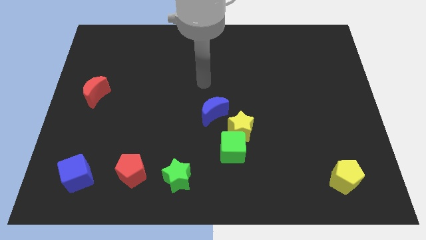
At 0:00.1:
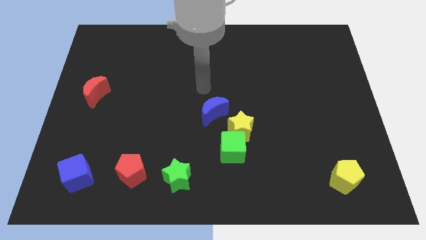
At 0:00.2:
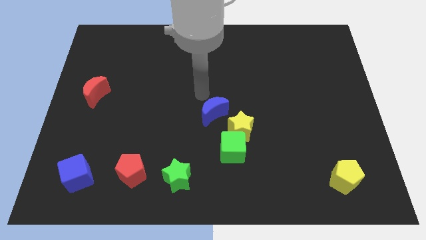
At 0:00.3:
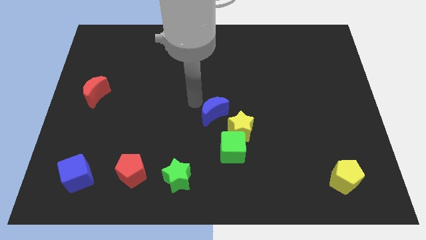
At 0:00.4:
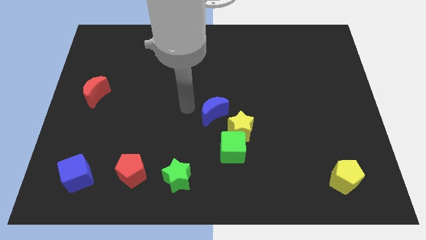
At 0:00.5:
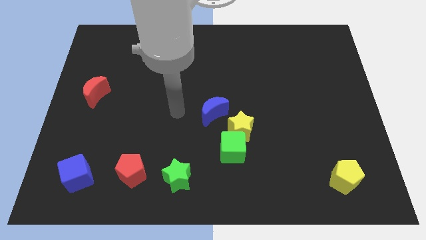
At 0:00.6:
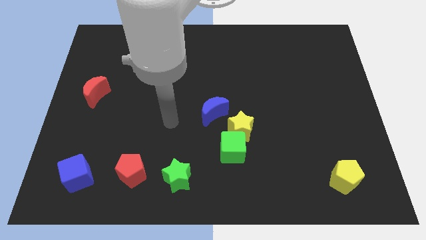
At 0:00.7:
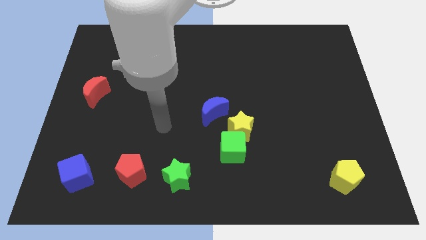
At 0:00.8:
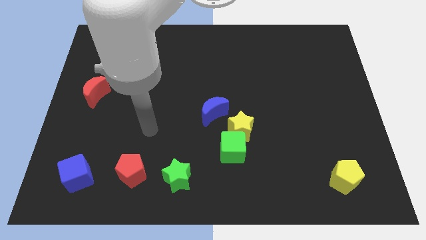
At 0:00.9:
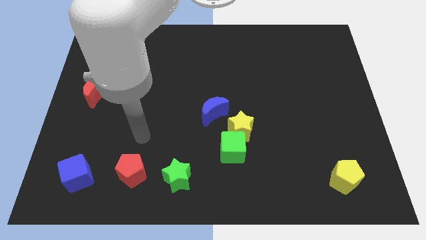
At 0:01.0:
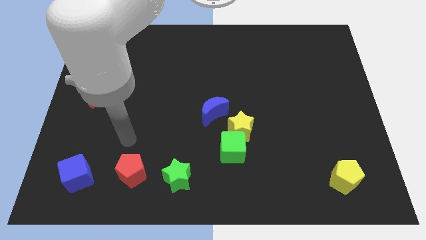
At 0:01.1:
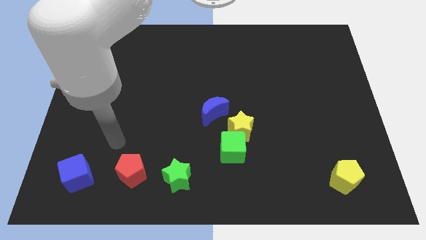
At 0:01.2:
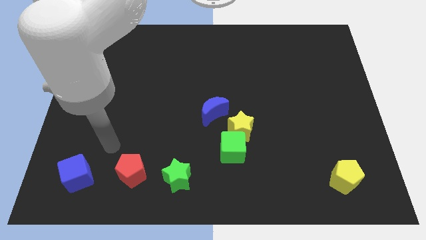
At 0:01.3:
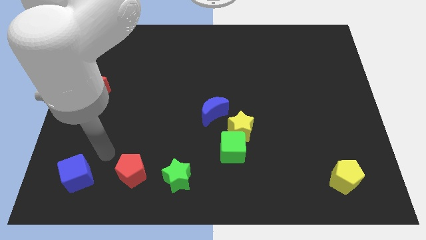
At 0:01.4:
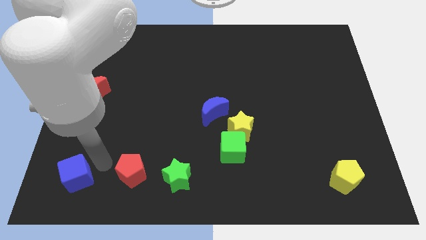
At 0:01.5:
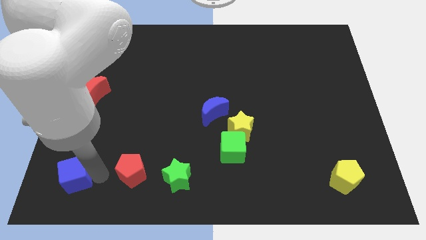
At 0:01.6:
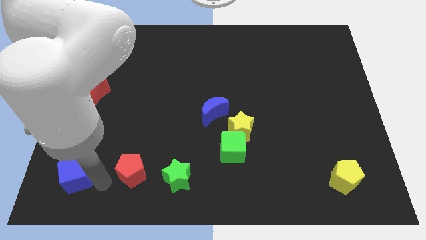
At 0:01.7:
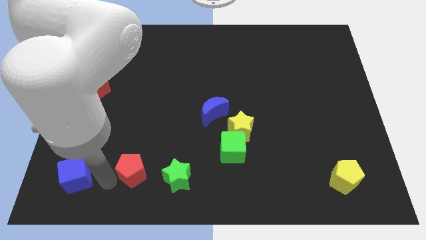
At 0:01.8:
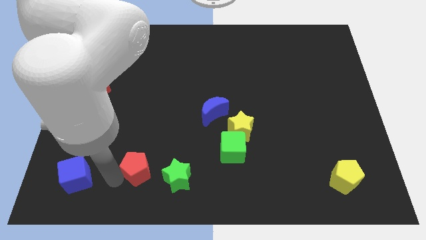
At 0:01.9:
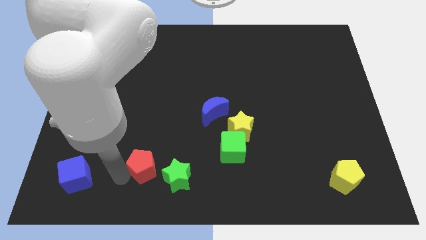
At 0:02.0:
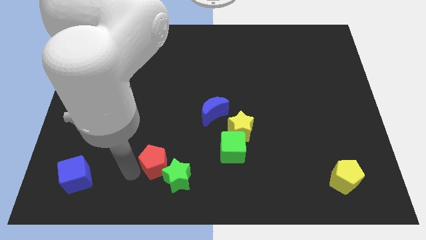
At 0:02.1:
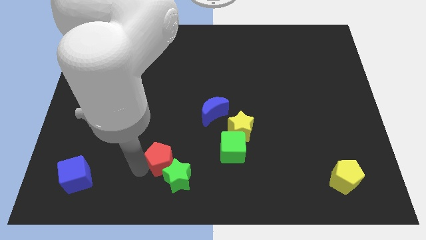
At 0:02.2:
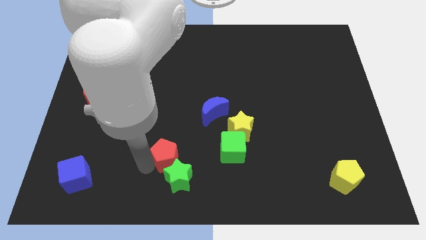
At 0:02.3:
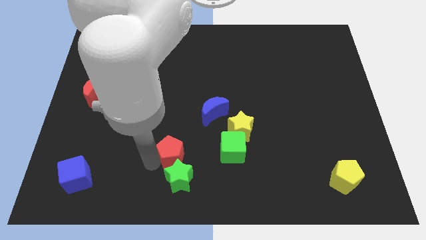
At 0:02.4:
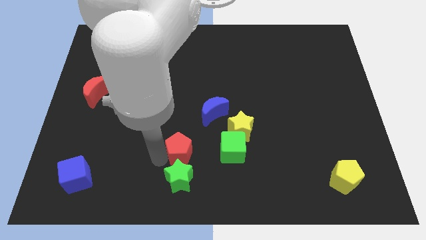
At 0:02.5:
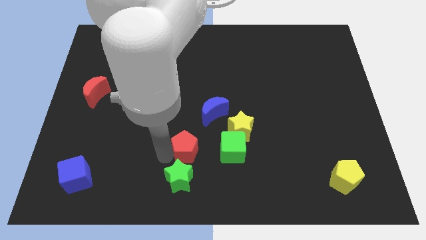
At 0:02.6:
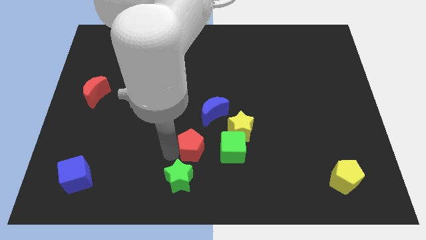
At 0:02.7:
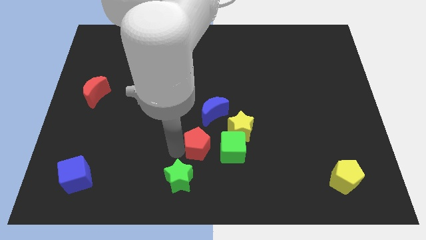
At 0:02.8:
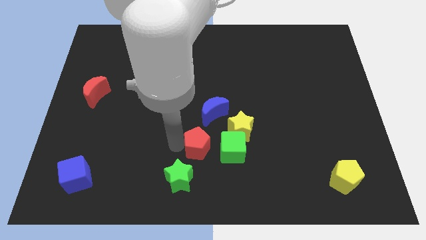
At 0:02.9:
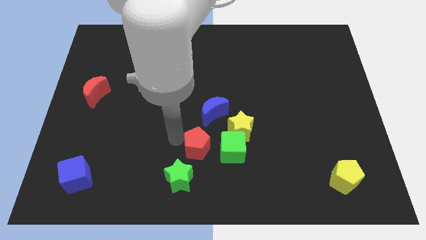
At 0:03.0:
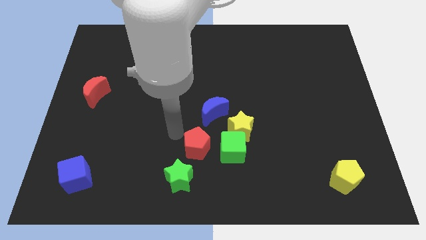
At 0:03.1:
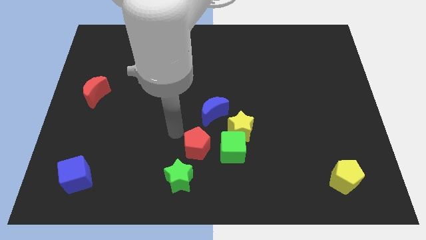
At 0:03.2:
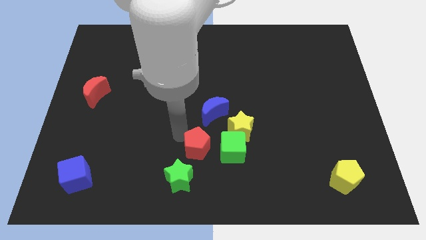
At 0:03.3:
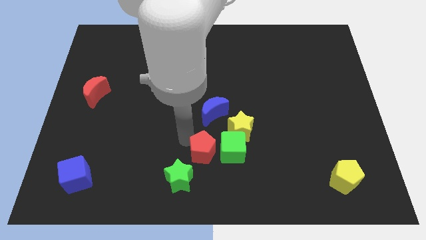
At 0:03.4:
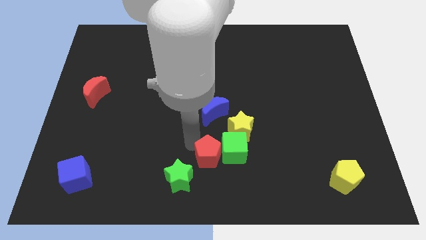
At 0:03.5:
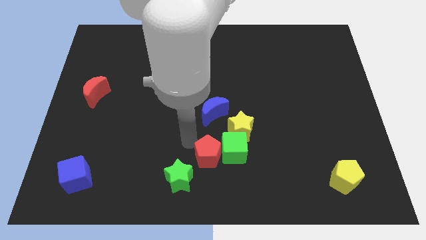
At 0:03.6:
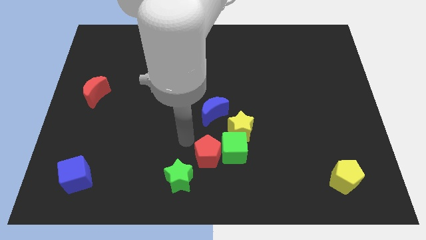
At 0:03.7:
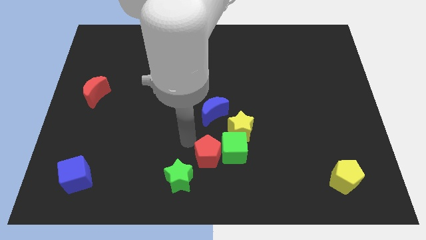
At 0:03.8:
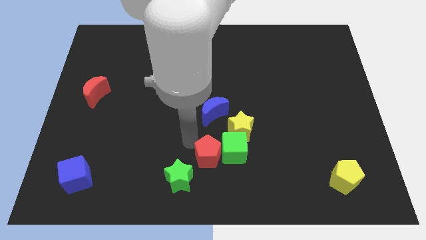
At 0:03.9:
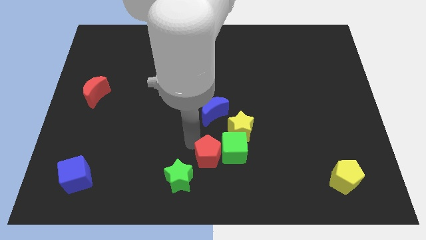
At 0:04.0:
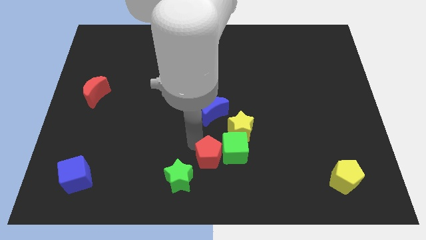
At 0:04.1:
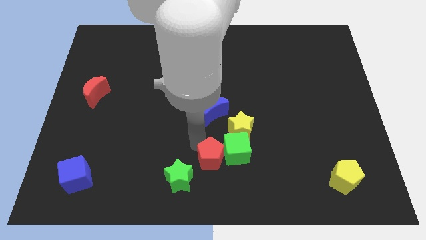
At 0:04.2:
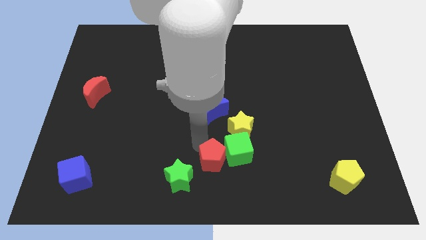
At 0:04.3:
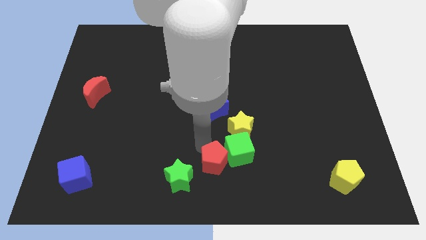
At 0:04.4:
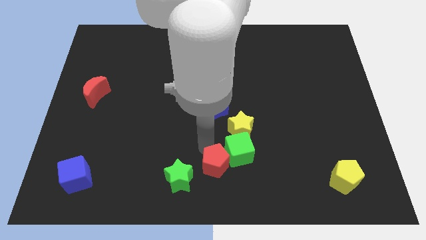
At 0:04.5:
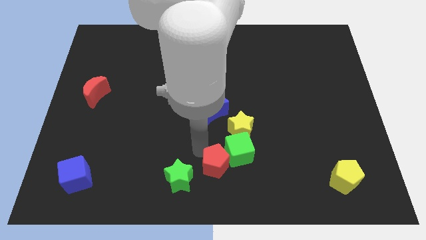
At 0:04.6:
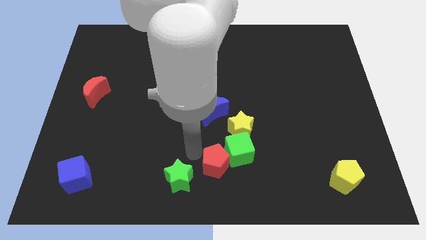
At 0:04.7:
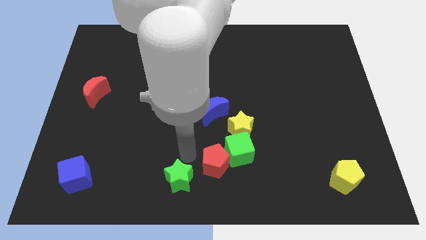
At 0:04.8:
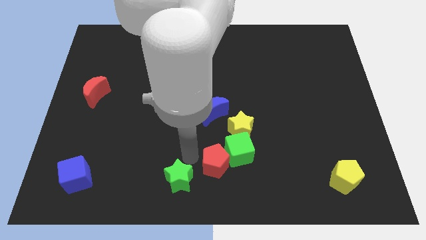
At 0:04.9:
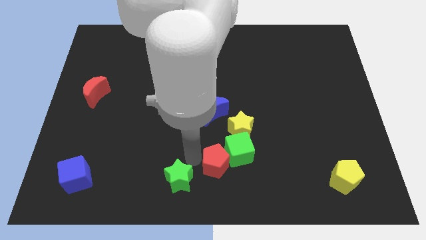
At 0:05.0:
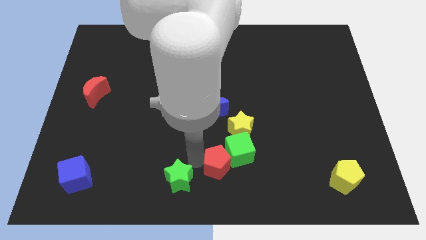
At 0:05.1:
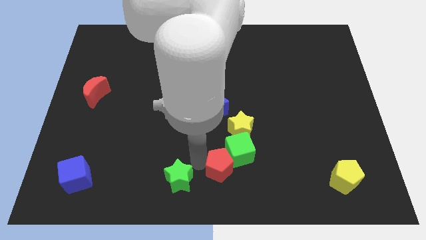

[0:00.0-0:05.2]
move the red pentagon to the bottom of the yellow star

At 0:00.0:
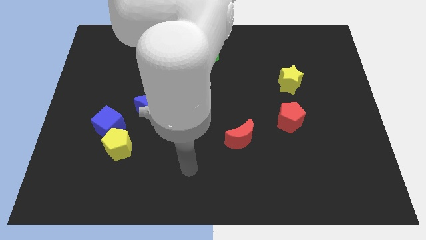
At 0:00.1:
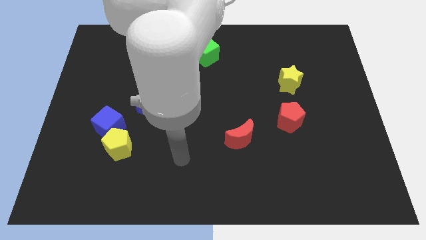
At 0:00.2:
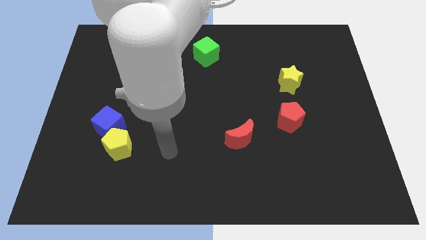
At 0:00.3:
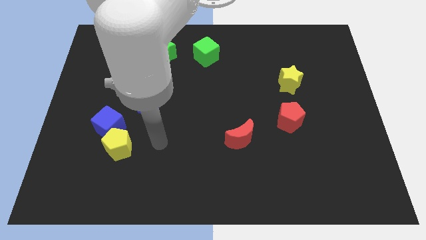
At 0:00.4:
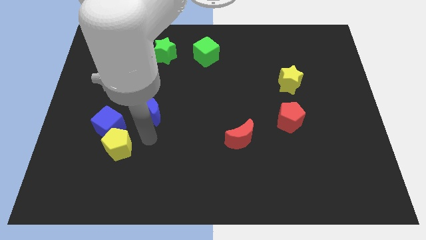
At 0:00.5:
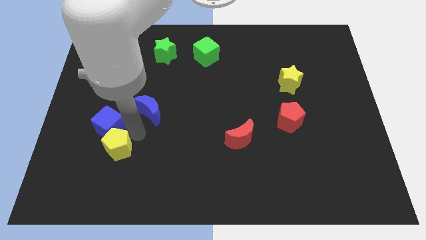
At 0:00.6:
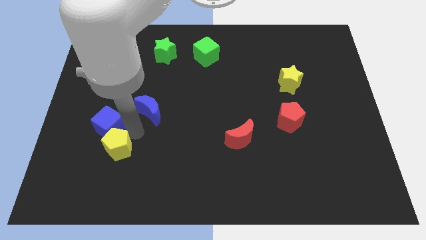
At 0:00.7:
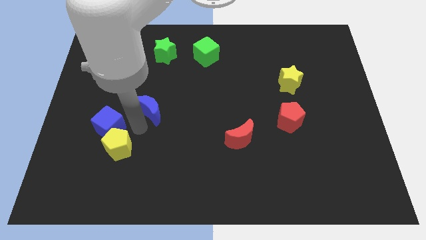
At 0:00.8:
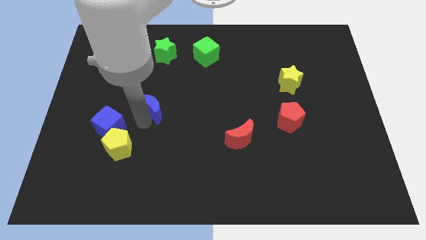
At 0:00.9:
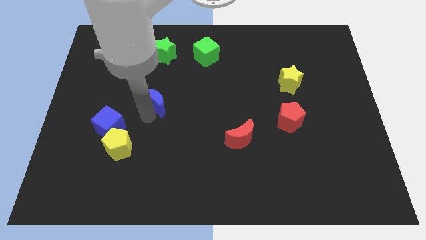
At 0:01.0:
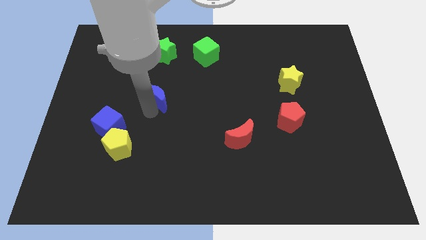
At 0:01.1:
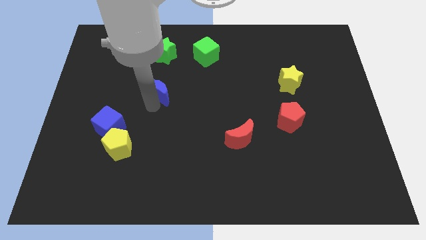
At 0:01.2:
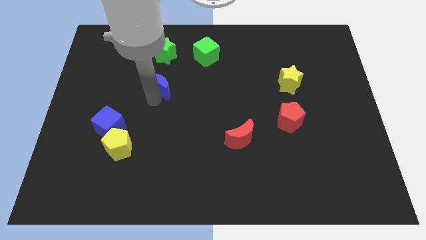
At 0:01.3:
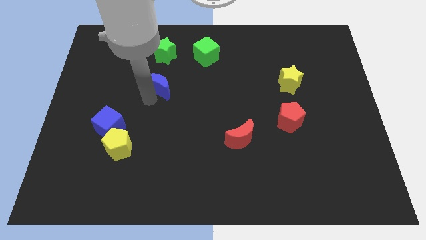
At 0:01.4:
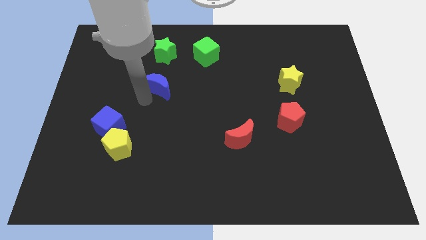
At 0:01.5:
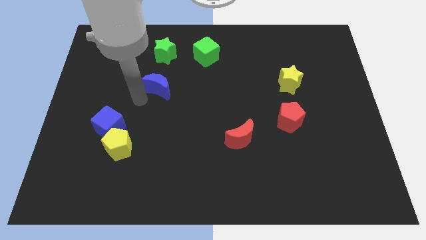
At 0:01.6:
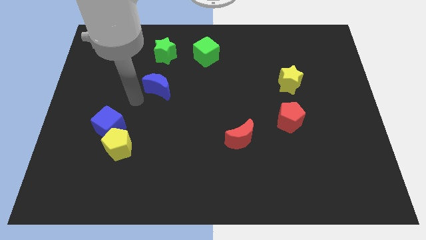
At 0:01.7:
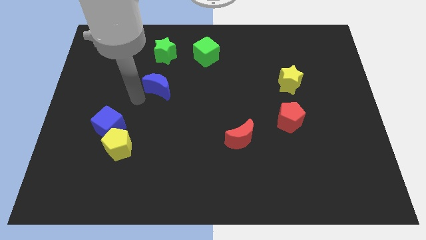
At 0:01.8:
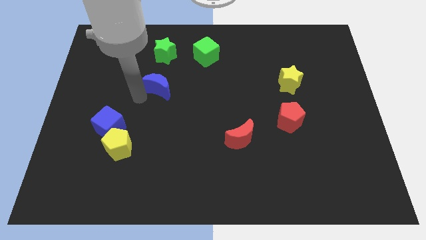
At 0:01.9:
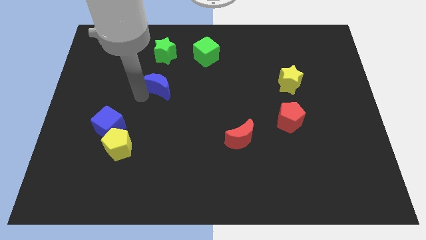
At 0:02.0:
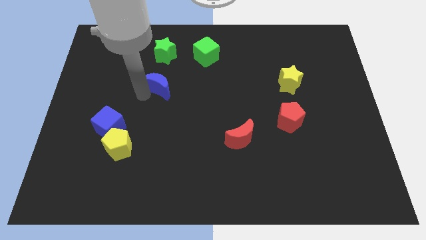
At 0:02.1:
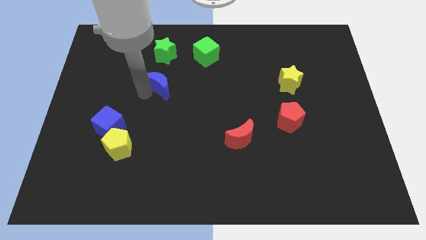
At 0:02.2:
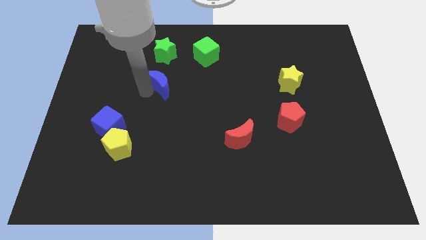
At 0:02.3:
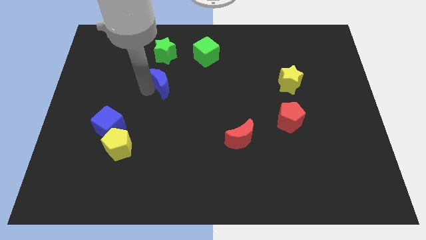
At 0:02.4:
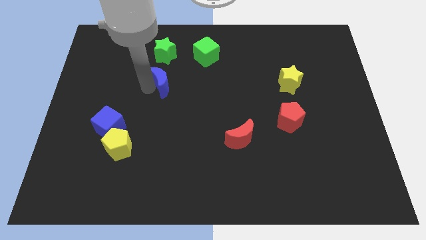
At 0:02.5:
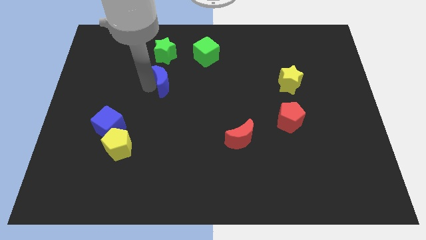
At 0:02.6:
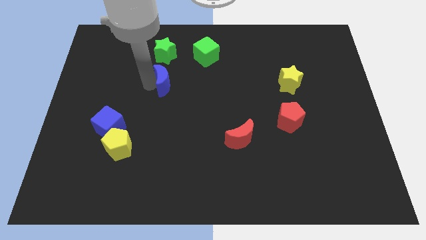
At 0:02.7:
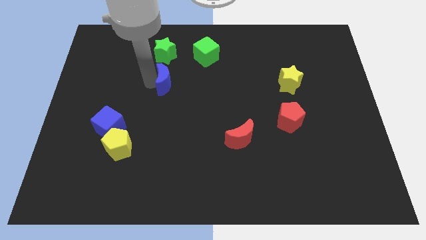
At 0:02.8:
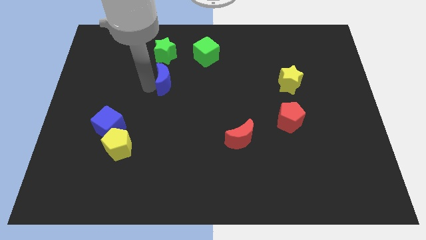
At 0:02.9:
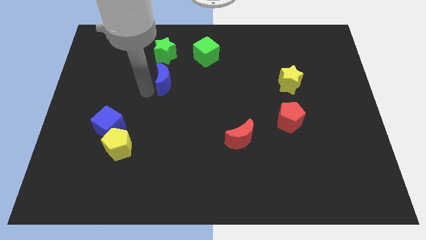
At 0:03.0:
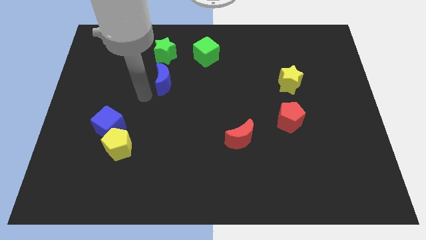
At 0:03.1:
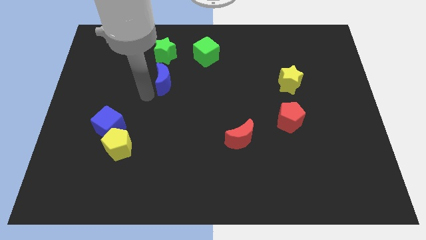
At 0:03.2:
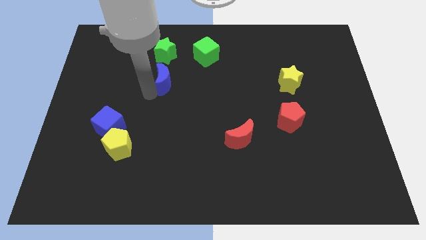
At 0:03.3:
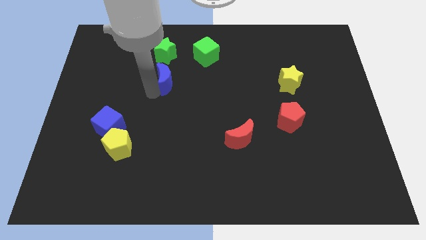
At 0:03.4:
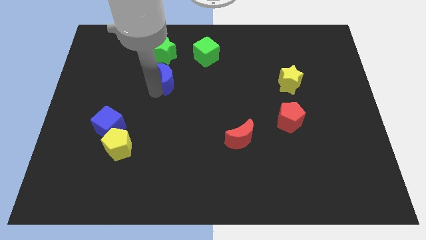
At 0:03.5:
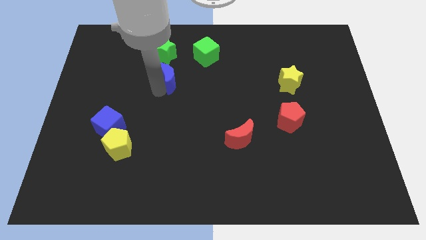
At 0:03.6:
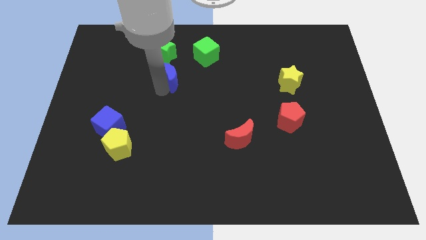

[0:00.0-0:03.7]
slide the blue moon diagonally down and to the right of the green star
